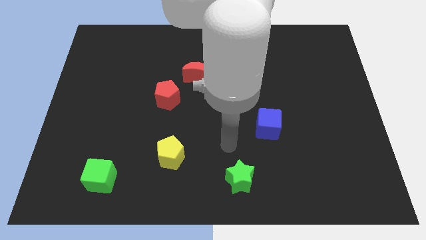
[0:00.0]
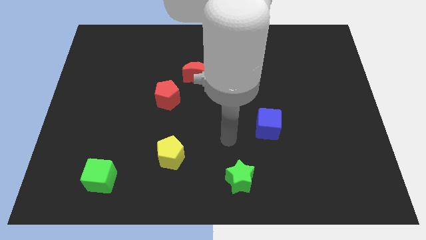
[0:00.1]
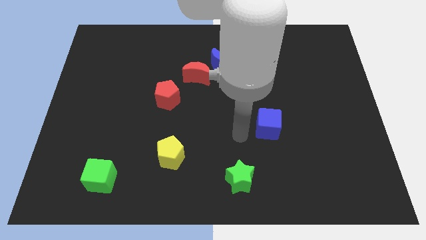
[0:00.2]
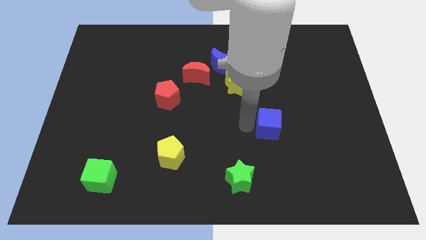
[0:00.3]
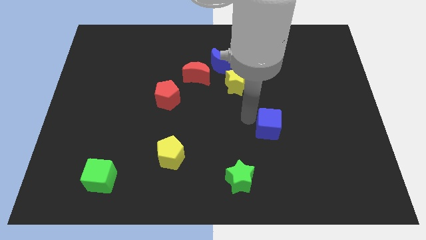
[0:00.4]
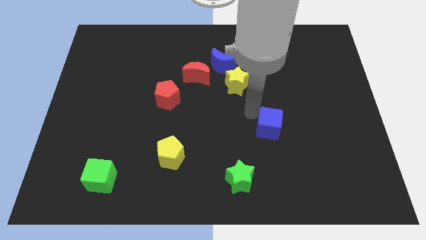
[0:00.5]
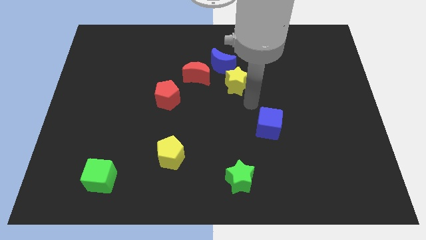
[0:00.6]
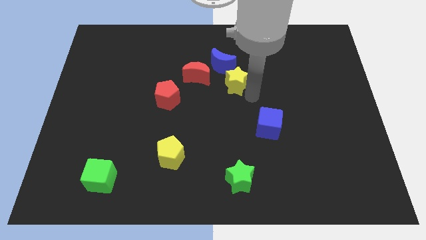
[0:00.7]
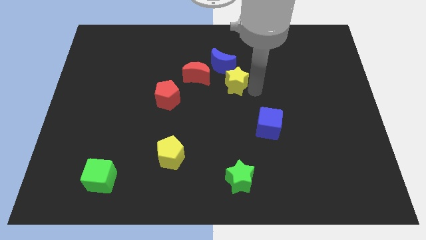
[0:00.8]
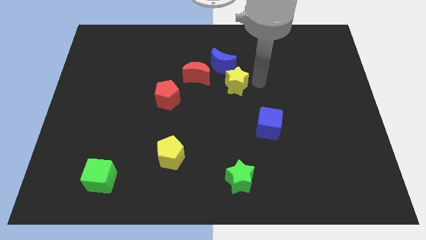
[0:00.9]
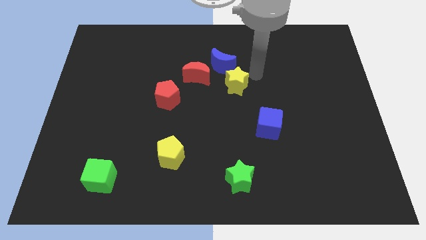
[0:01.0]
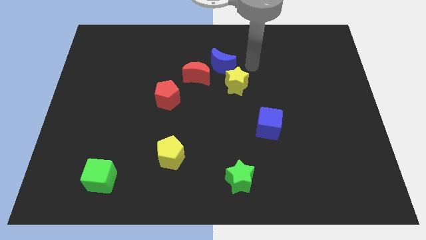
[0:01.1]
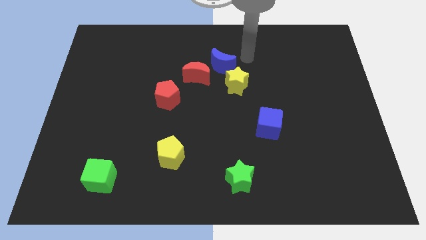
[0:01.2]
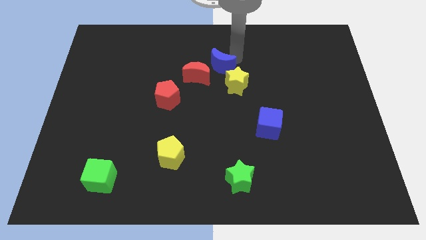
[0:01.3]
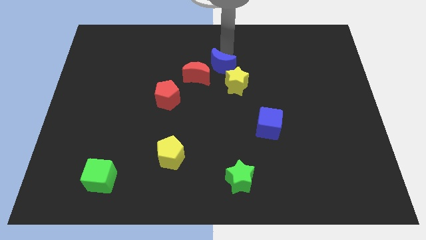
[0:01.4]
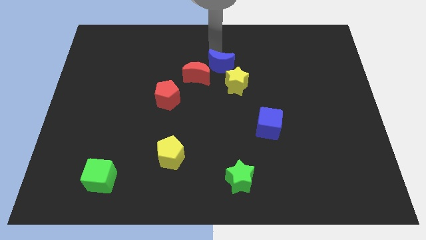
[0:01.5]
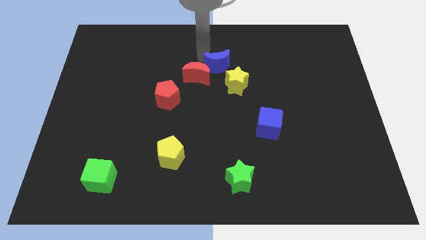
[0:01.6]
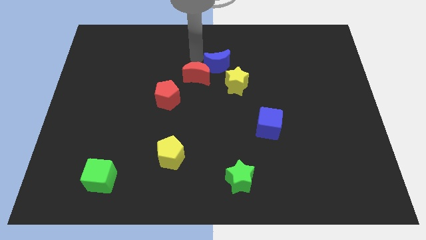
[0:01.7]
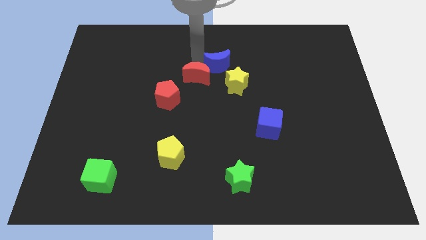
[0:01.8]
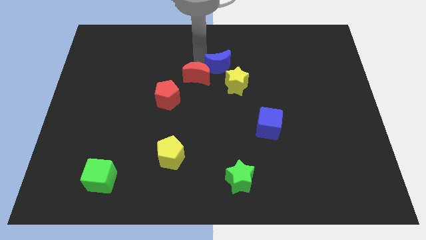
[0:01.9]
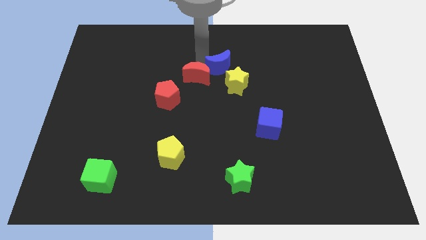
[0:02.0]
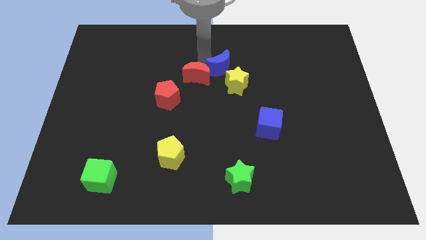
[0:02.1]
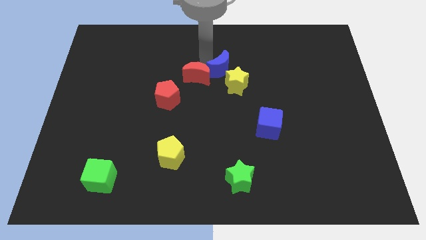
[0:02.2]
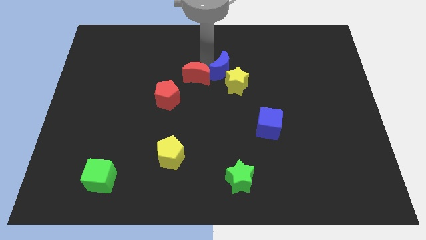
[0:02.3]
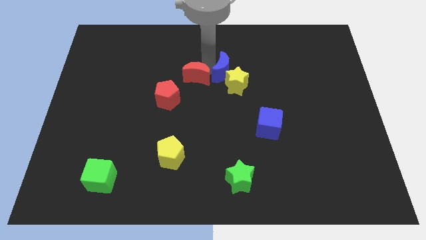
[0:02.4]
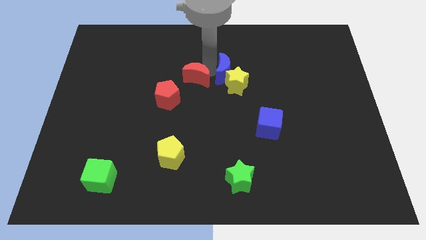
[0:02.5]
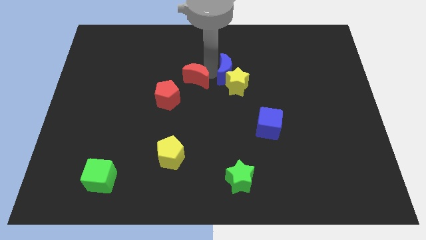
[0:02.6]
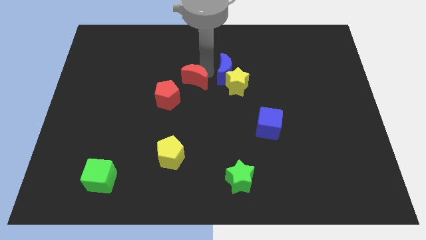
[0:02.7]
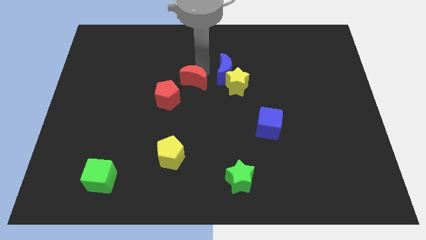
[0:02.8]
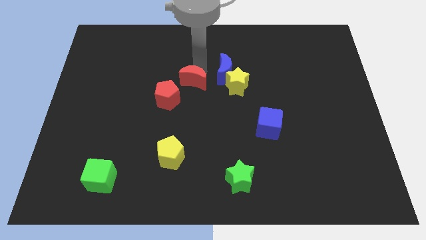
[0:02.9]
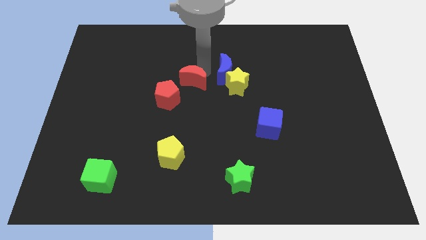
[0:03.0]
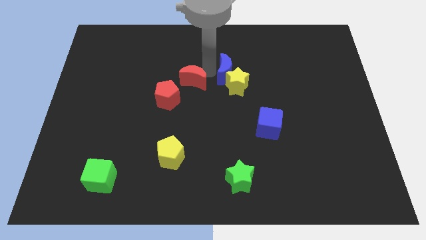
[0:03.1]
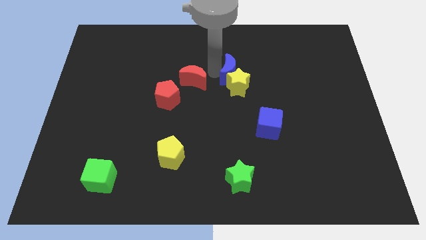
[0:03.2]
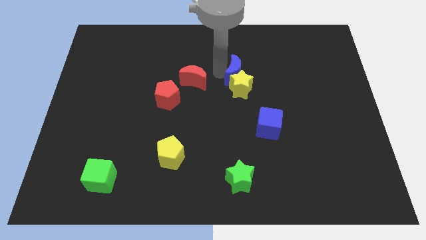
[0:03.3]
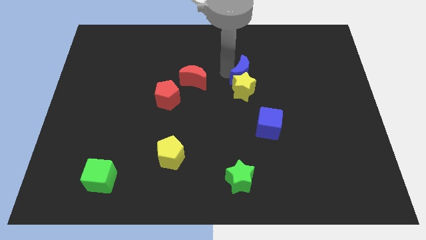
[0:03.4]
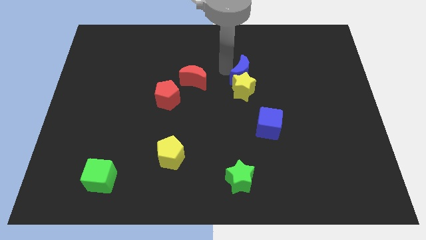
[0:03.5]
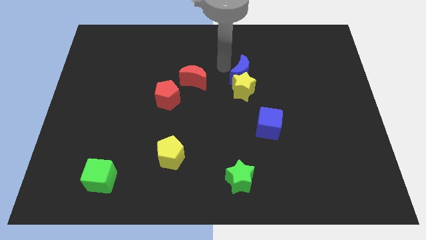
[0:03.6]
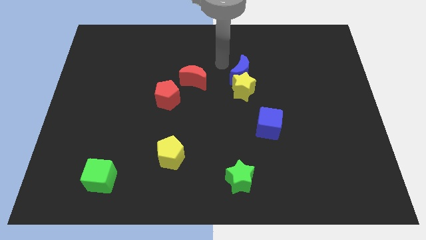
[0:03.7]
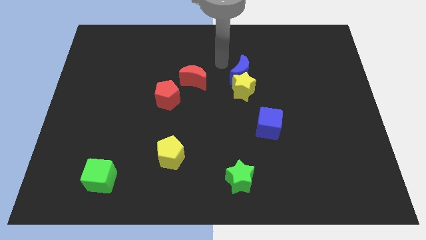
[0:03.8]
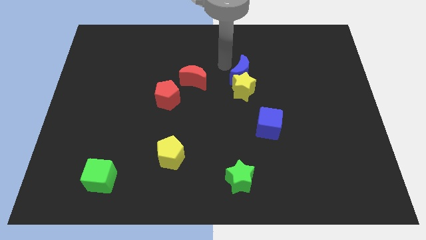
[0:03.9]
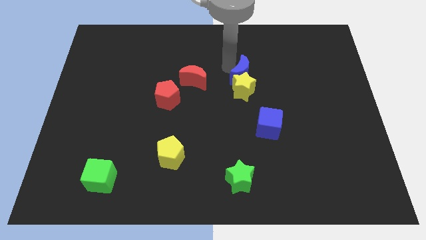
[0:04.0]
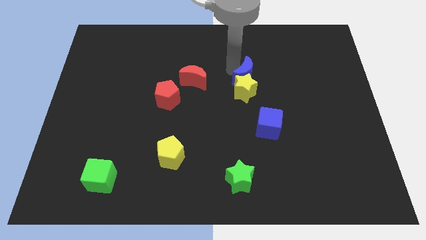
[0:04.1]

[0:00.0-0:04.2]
slightly slide the blue moon diagonally down and right

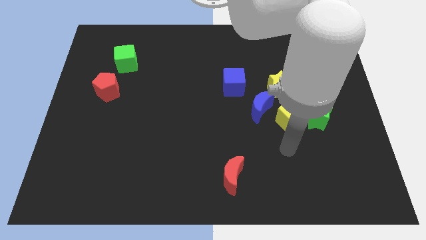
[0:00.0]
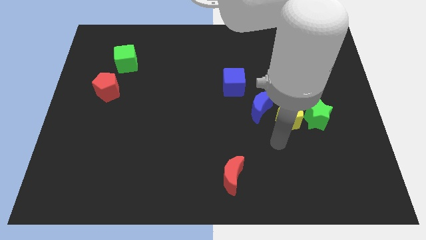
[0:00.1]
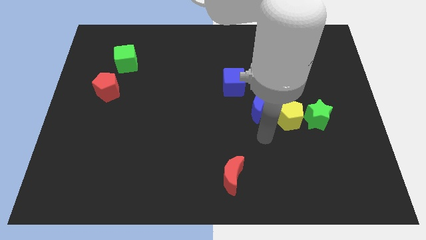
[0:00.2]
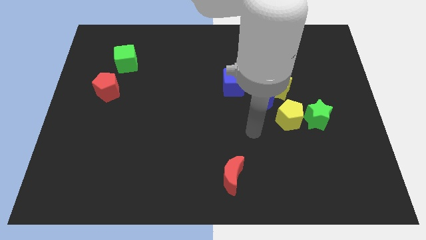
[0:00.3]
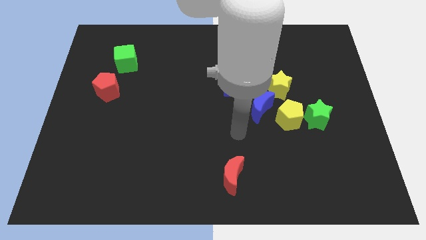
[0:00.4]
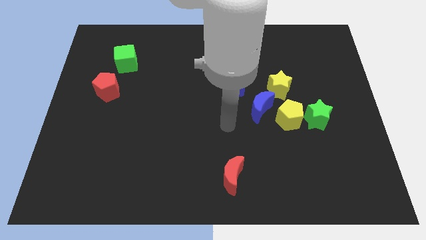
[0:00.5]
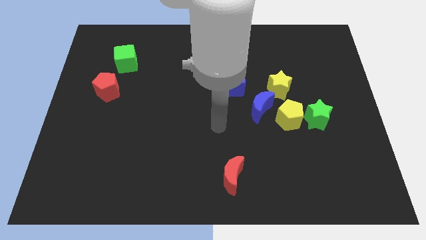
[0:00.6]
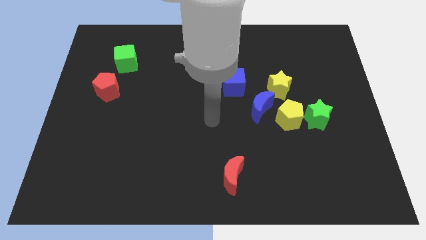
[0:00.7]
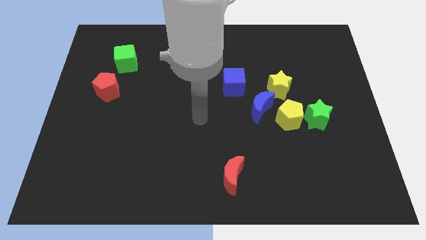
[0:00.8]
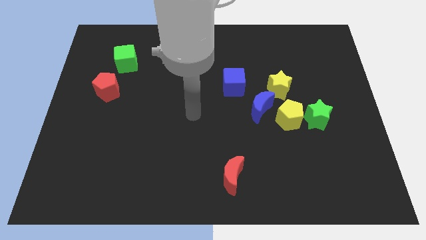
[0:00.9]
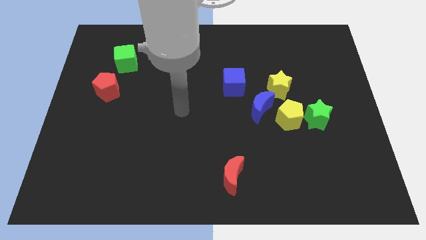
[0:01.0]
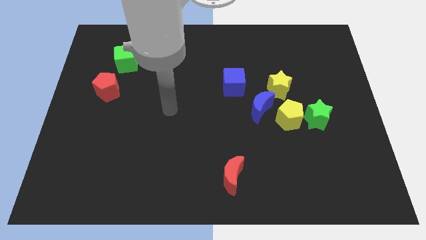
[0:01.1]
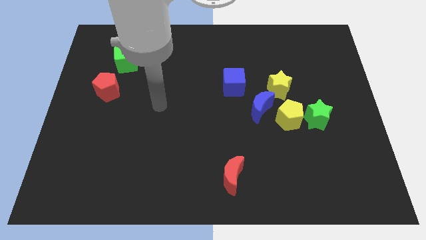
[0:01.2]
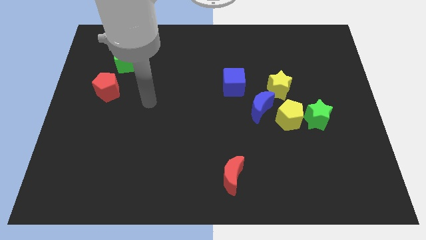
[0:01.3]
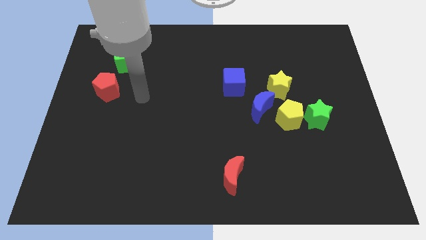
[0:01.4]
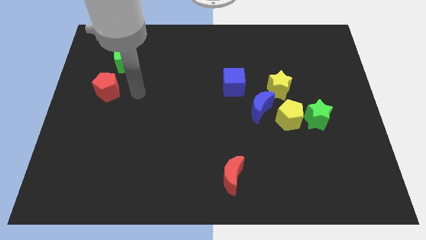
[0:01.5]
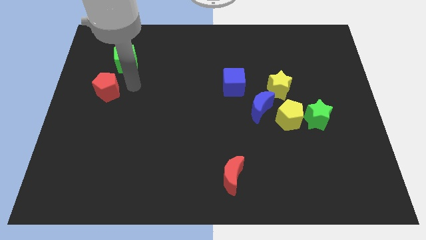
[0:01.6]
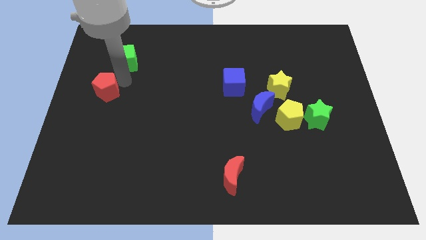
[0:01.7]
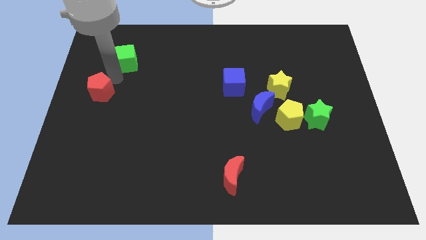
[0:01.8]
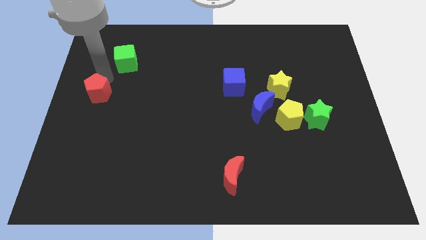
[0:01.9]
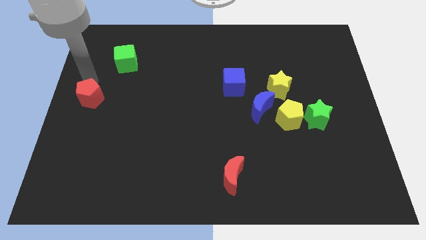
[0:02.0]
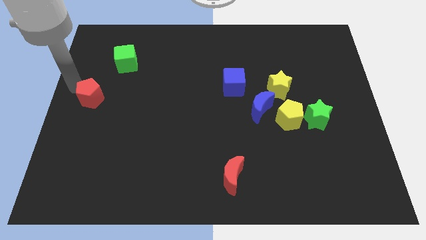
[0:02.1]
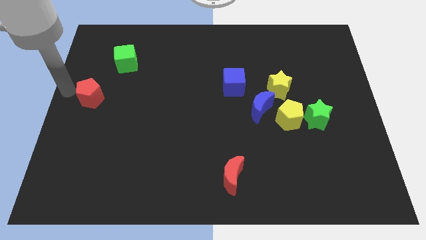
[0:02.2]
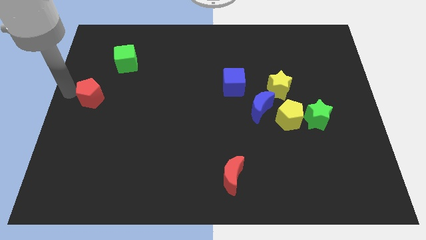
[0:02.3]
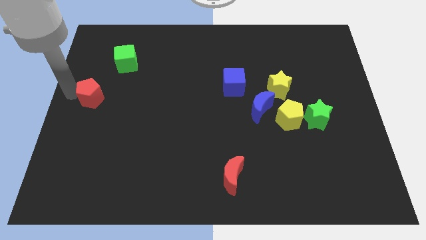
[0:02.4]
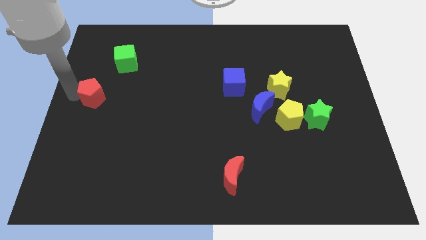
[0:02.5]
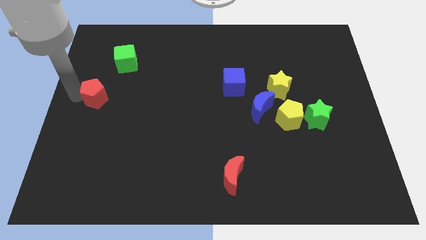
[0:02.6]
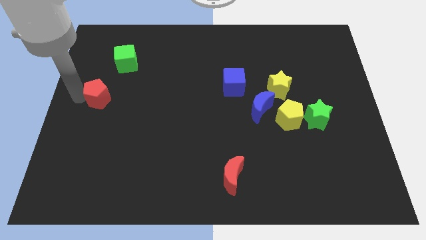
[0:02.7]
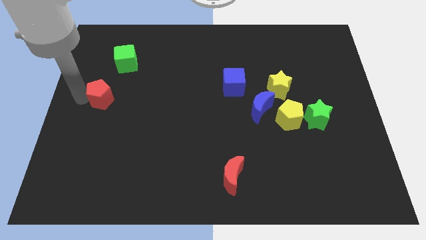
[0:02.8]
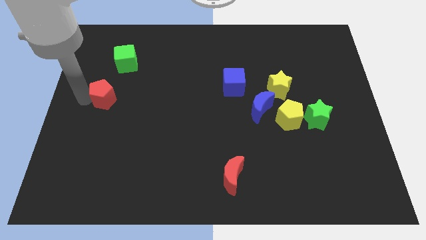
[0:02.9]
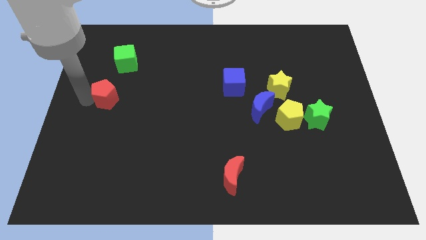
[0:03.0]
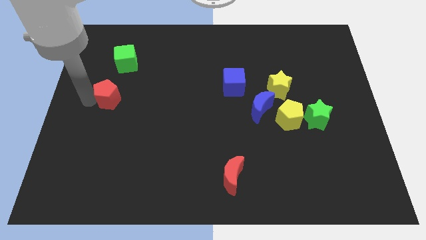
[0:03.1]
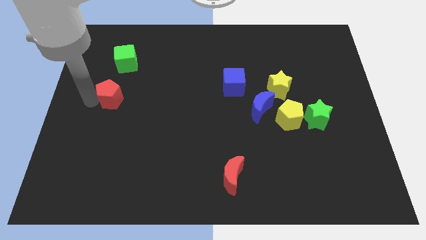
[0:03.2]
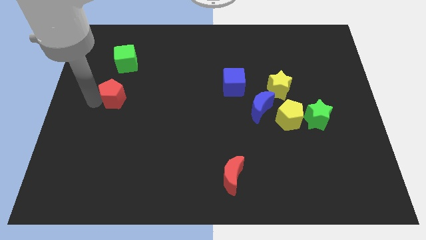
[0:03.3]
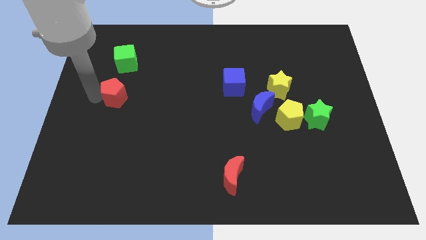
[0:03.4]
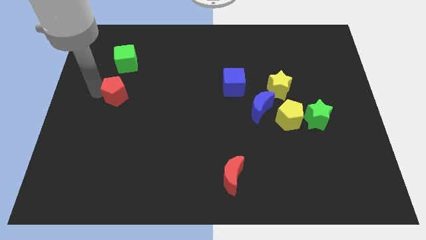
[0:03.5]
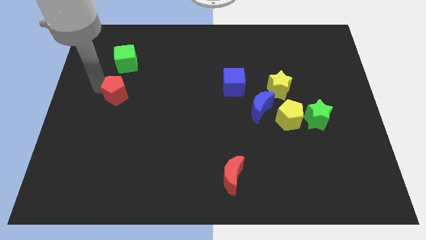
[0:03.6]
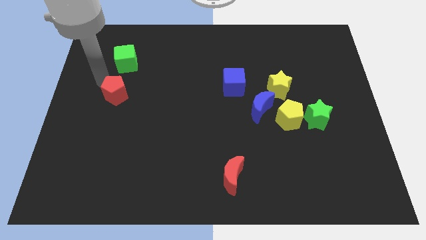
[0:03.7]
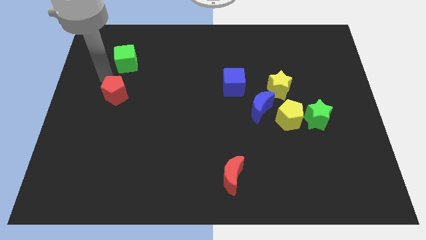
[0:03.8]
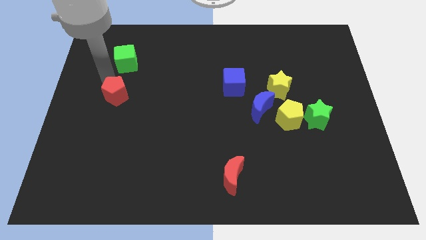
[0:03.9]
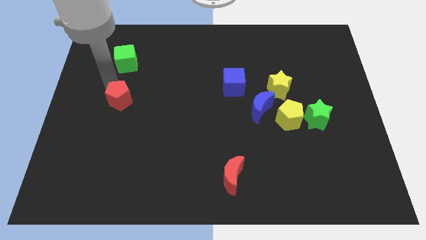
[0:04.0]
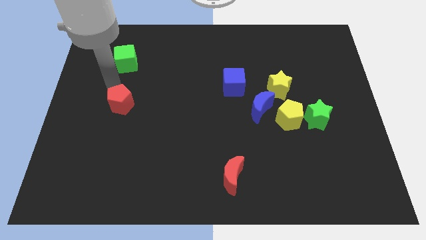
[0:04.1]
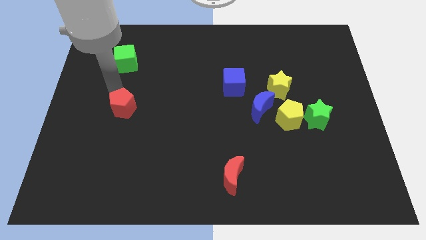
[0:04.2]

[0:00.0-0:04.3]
slide the red pentagon downwards and right diagonally a little

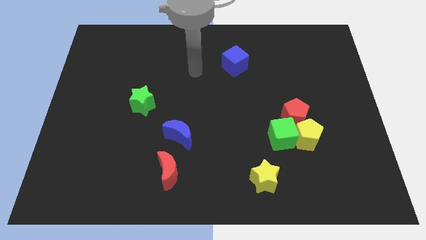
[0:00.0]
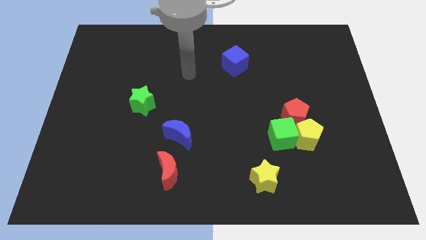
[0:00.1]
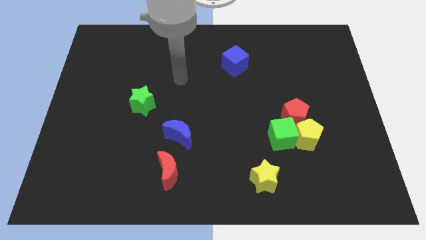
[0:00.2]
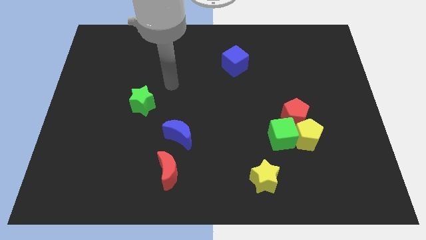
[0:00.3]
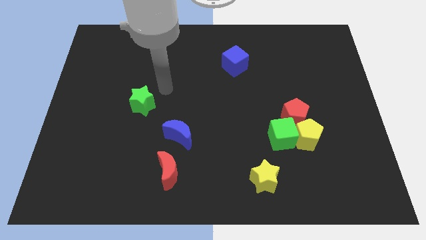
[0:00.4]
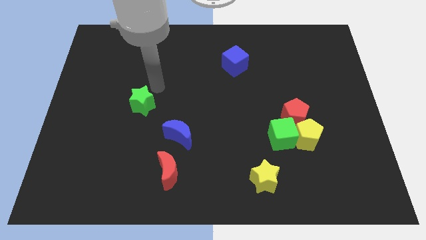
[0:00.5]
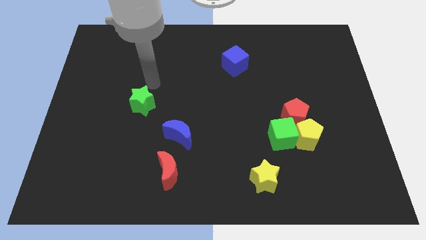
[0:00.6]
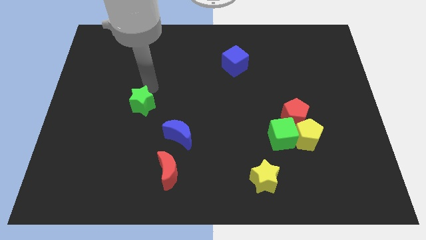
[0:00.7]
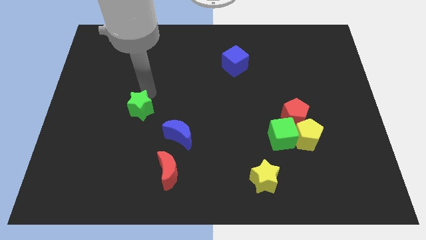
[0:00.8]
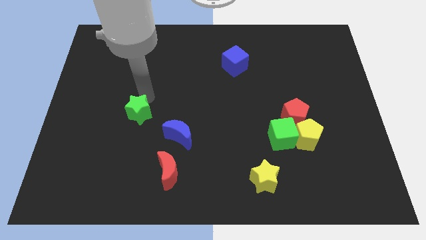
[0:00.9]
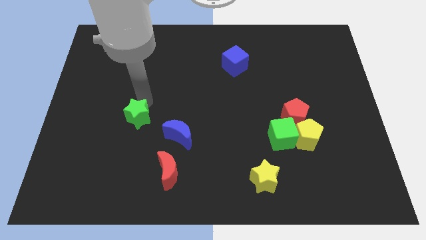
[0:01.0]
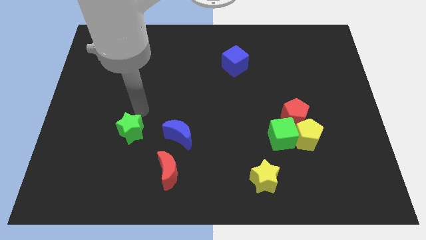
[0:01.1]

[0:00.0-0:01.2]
slightly move the green star down
